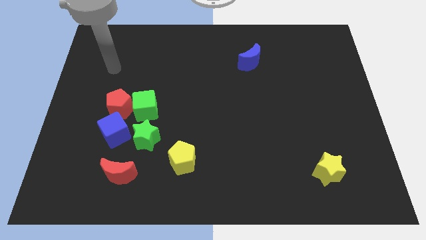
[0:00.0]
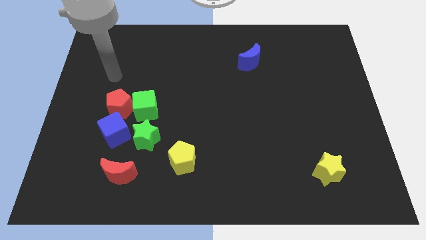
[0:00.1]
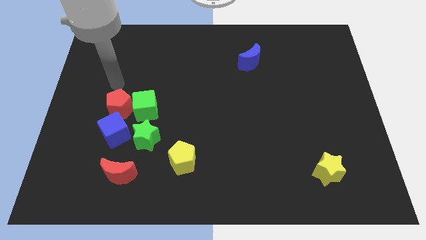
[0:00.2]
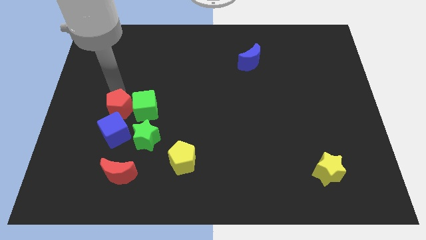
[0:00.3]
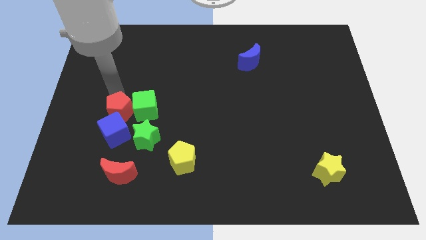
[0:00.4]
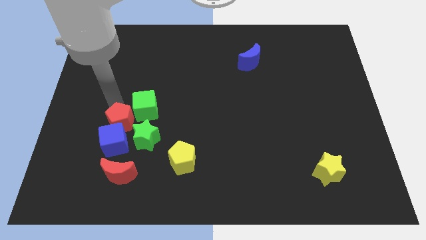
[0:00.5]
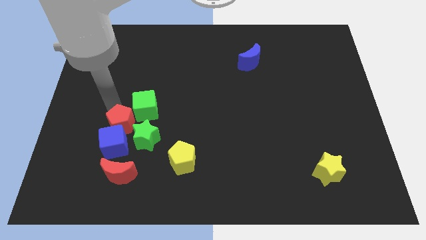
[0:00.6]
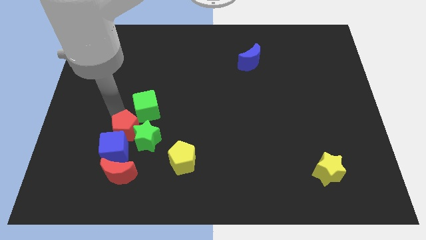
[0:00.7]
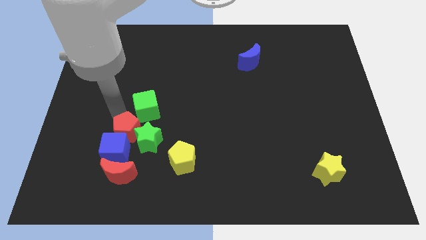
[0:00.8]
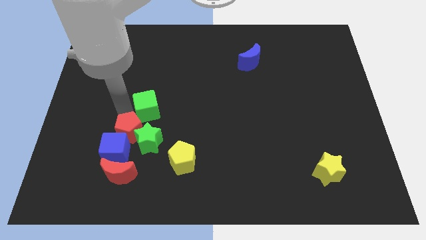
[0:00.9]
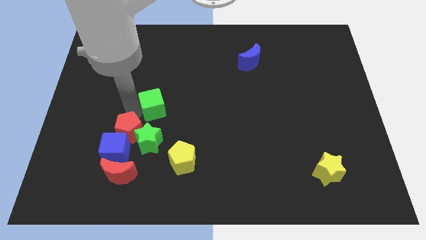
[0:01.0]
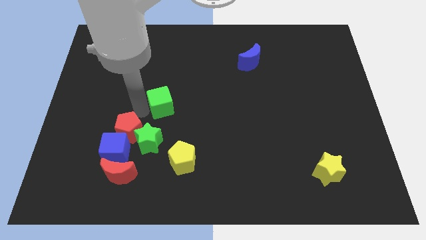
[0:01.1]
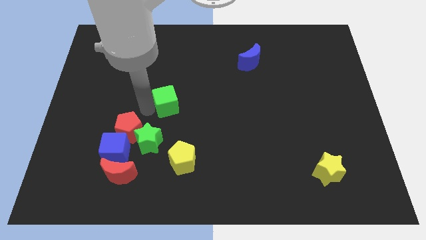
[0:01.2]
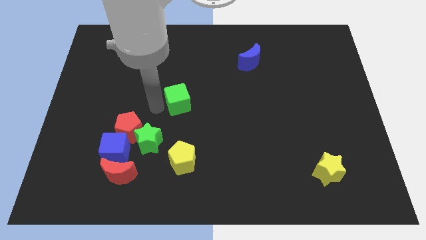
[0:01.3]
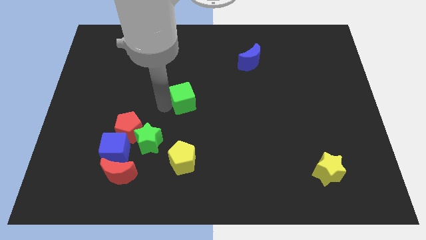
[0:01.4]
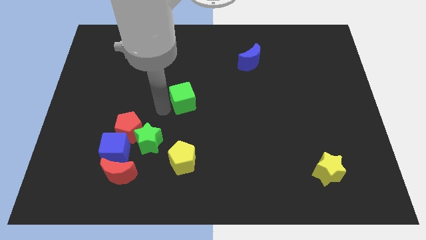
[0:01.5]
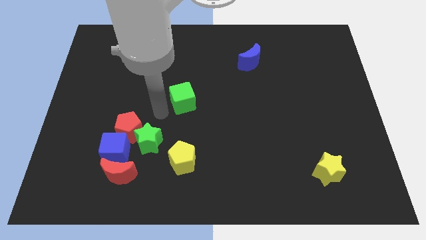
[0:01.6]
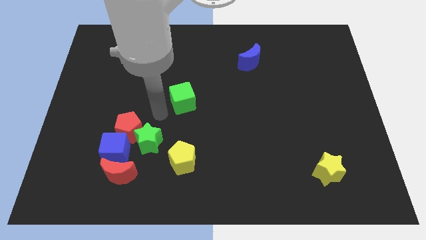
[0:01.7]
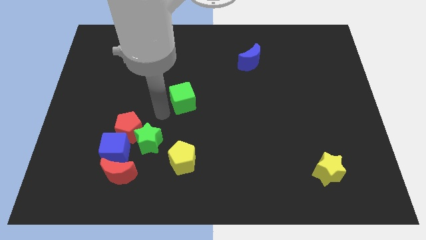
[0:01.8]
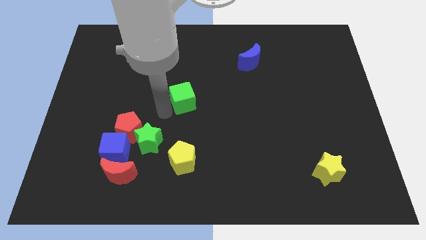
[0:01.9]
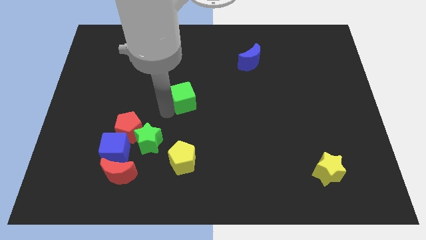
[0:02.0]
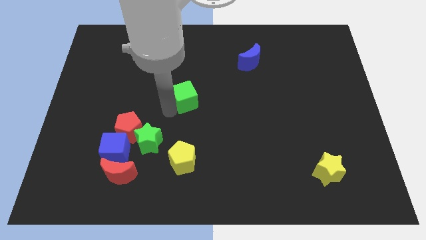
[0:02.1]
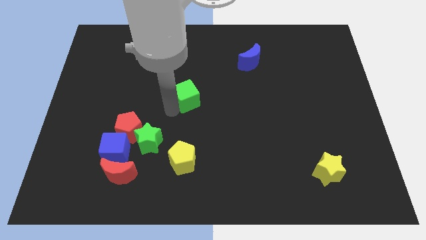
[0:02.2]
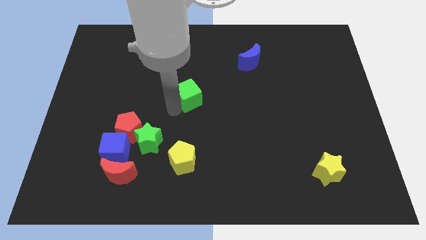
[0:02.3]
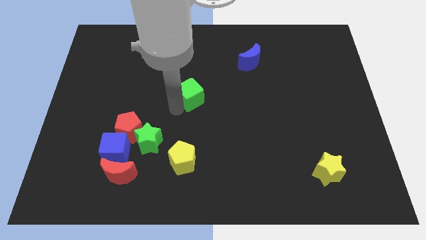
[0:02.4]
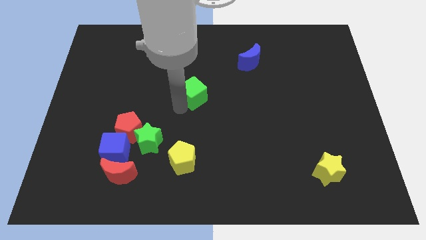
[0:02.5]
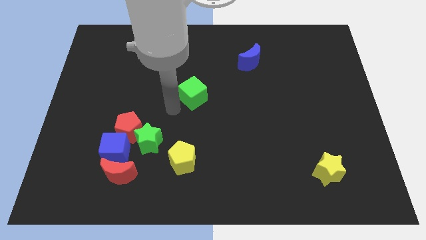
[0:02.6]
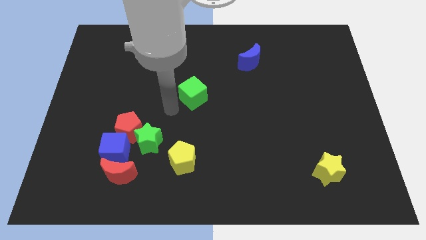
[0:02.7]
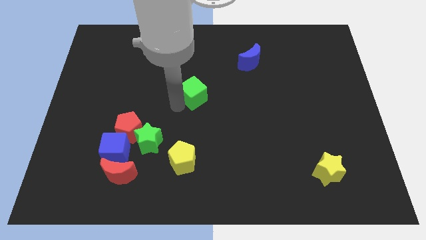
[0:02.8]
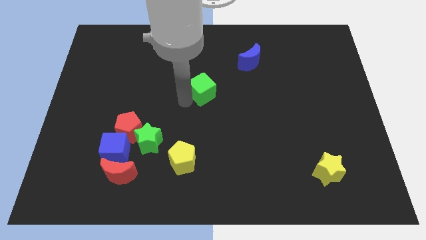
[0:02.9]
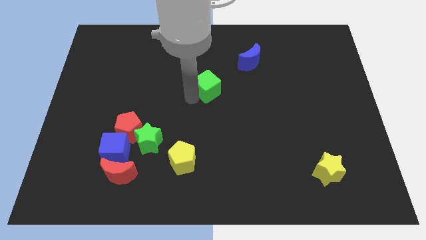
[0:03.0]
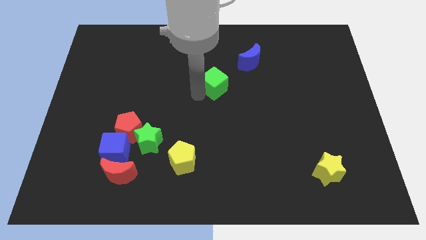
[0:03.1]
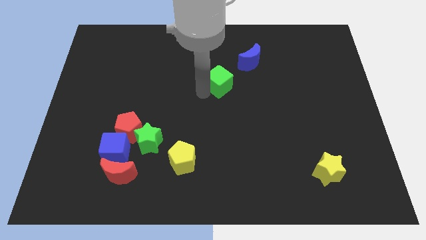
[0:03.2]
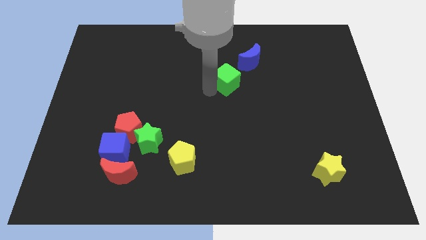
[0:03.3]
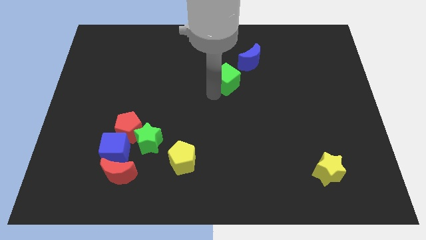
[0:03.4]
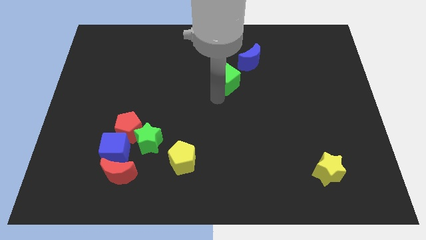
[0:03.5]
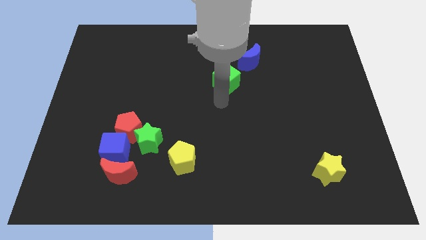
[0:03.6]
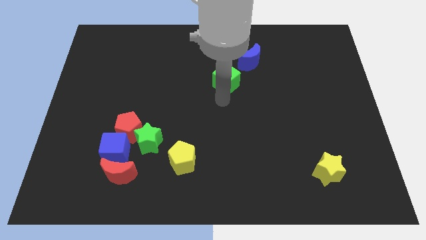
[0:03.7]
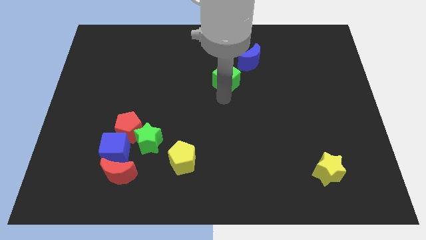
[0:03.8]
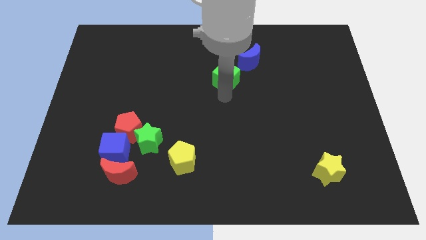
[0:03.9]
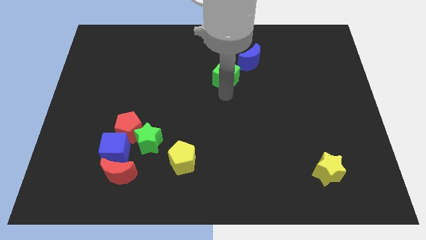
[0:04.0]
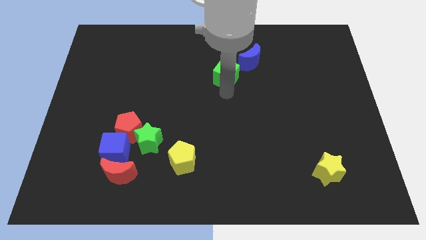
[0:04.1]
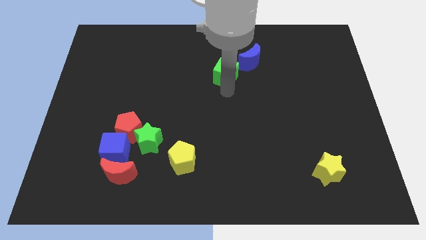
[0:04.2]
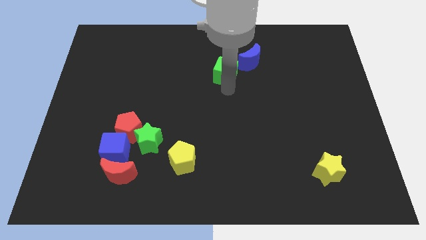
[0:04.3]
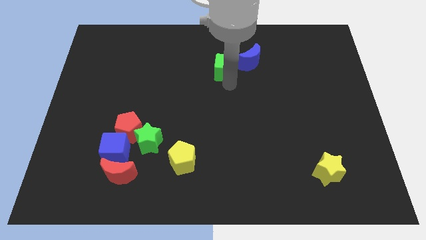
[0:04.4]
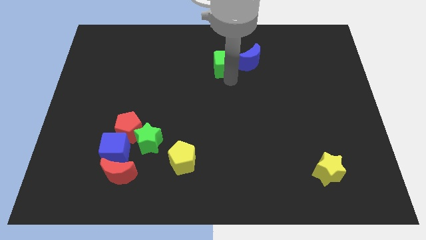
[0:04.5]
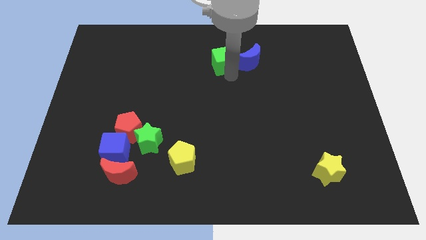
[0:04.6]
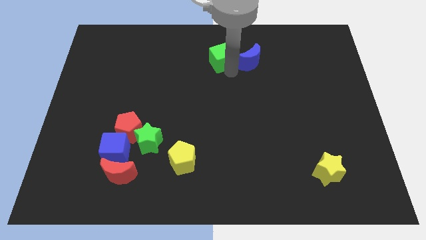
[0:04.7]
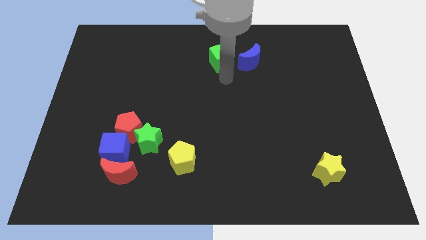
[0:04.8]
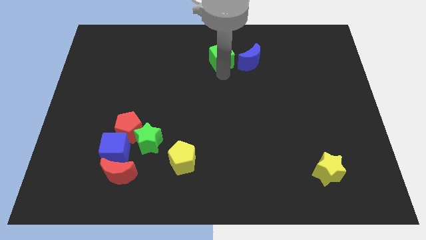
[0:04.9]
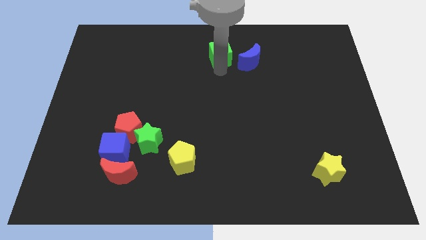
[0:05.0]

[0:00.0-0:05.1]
push the green cube to the top side

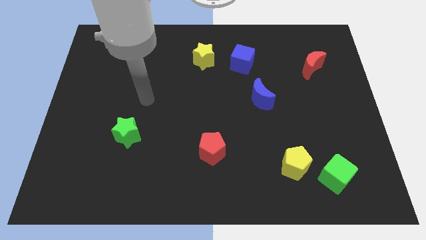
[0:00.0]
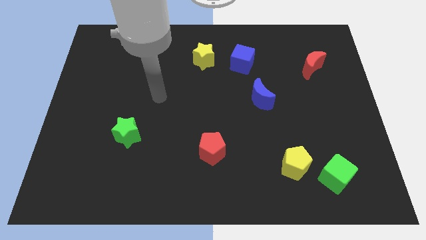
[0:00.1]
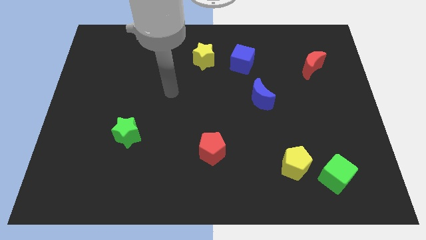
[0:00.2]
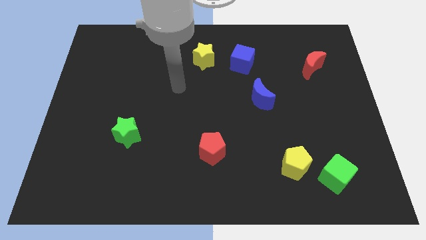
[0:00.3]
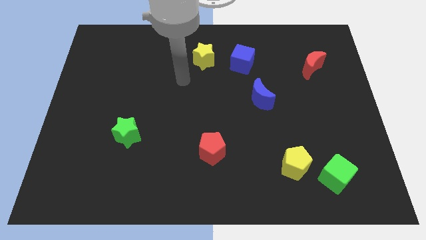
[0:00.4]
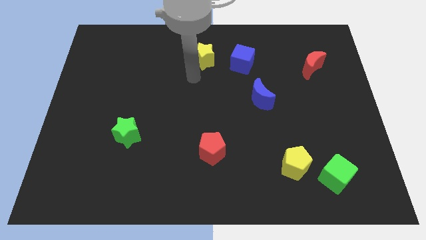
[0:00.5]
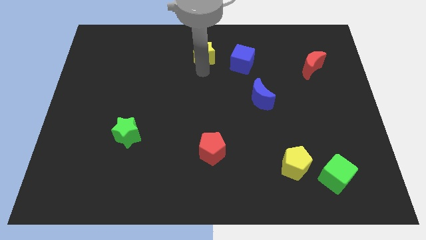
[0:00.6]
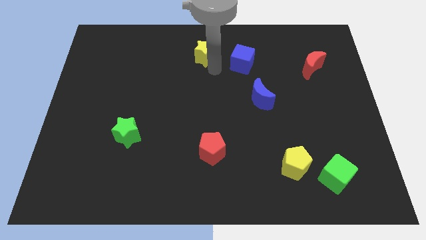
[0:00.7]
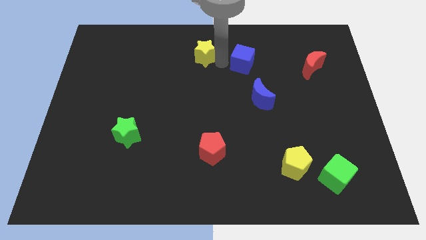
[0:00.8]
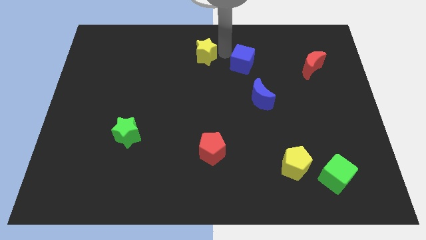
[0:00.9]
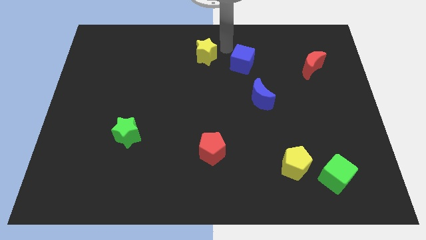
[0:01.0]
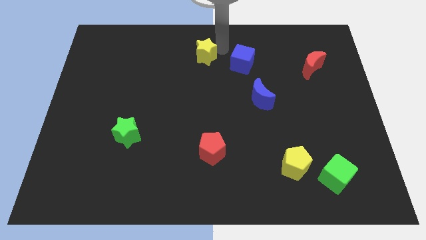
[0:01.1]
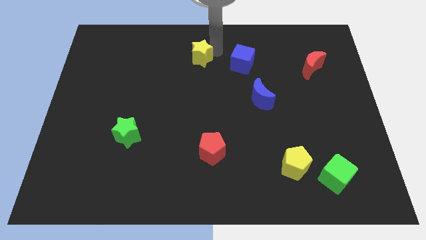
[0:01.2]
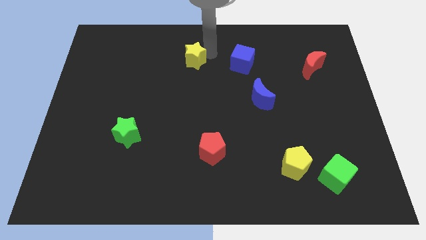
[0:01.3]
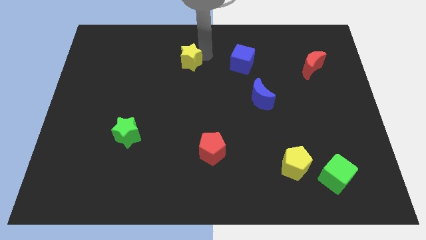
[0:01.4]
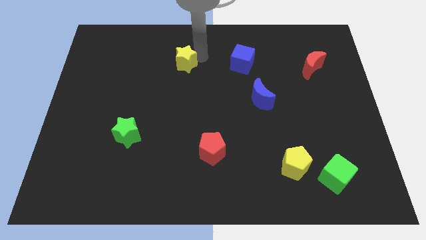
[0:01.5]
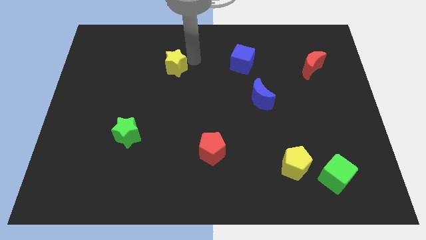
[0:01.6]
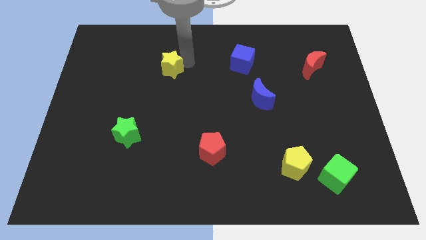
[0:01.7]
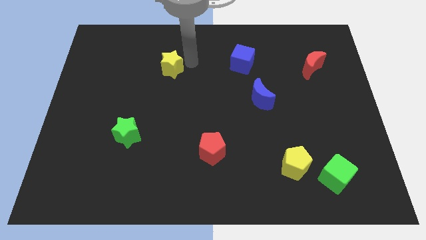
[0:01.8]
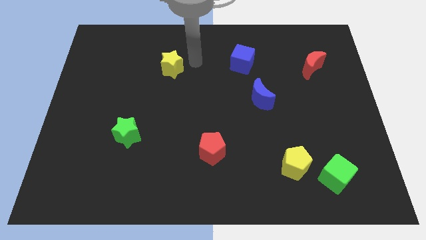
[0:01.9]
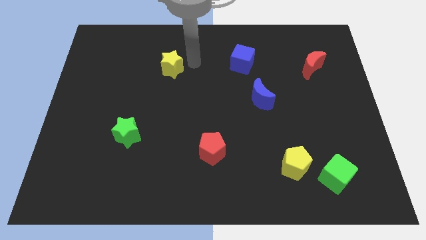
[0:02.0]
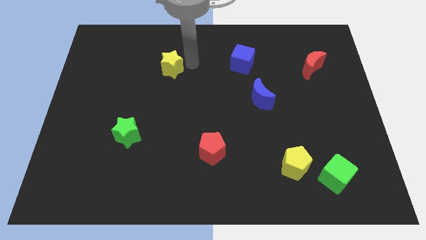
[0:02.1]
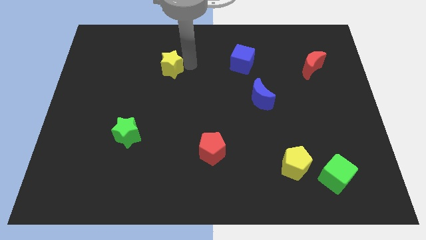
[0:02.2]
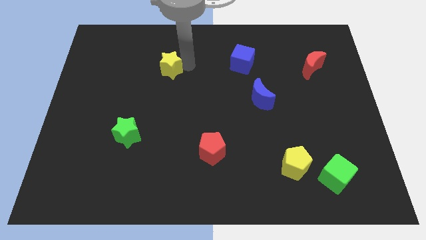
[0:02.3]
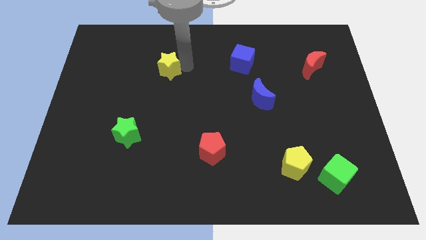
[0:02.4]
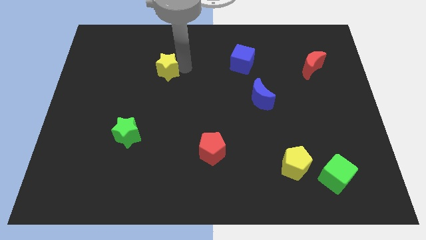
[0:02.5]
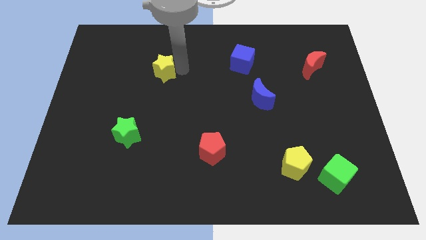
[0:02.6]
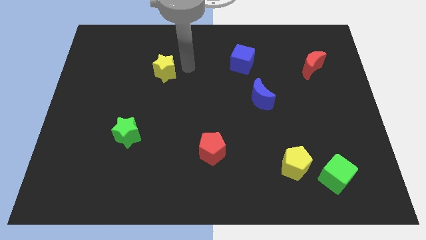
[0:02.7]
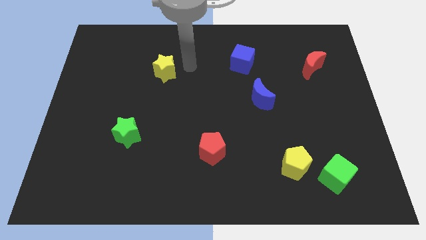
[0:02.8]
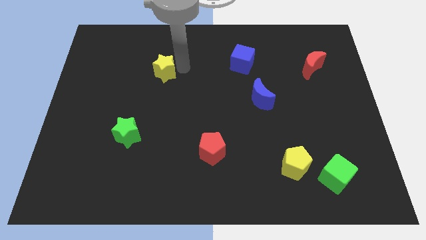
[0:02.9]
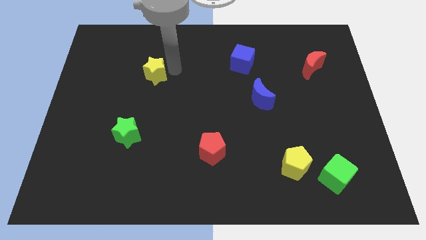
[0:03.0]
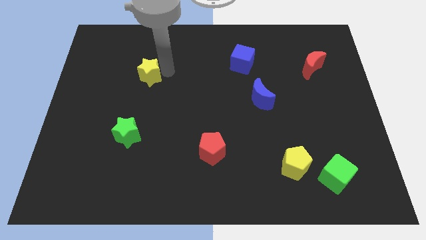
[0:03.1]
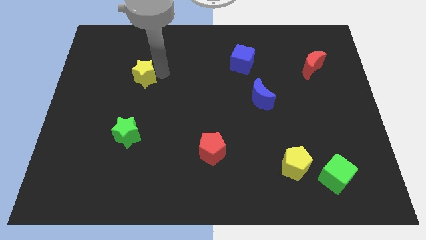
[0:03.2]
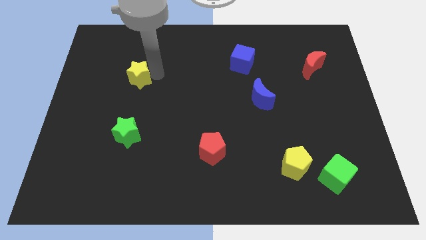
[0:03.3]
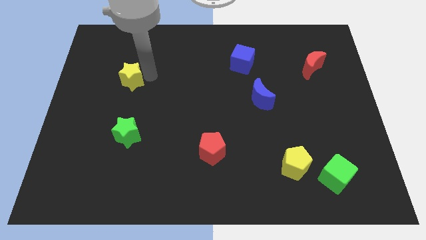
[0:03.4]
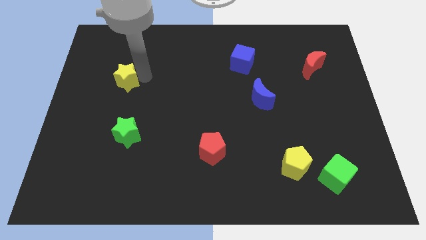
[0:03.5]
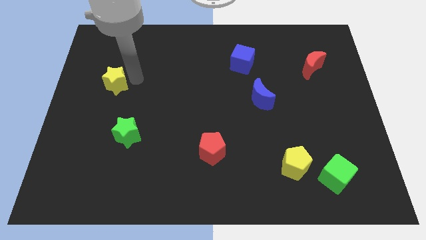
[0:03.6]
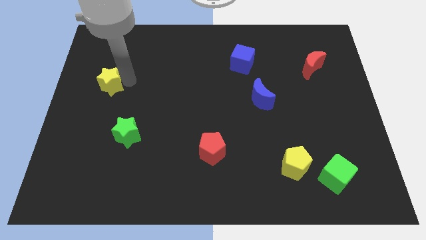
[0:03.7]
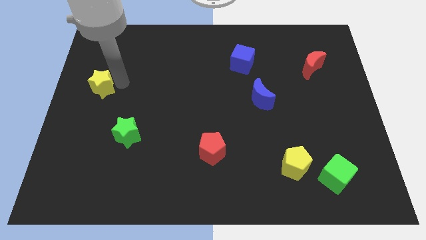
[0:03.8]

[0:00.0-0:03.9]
push the yellow star to the left side
